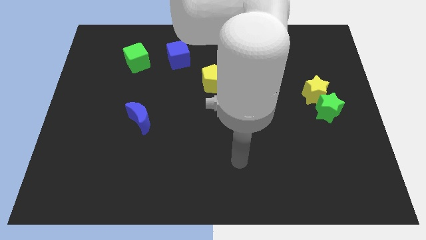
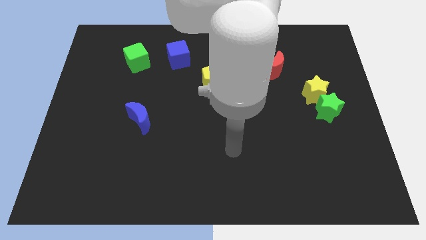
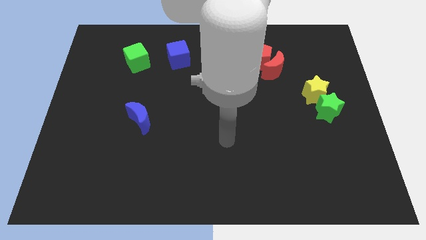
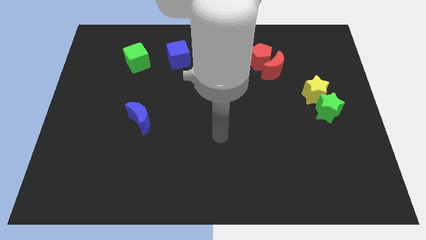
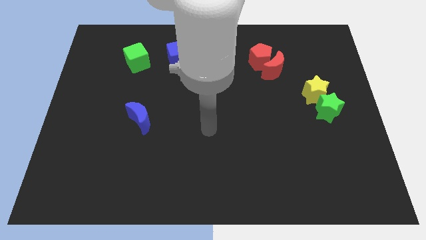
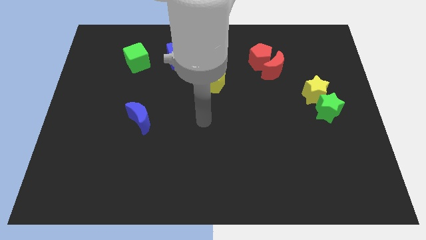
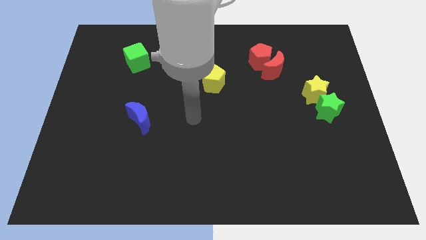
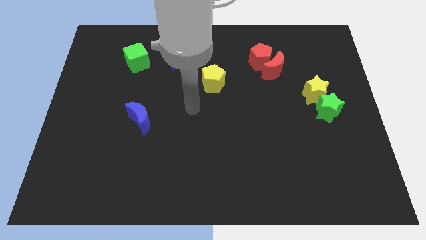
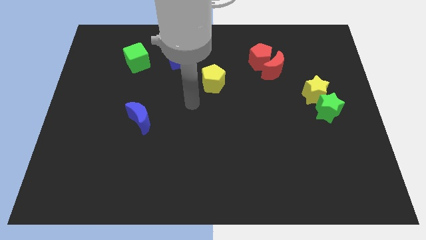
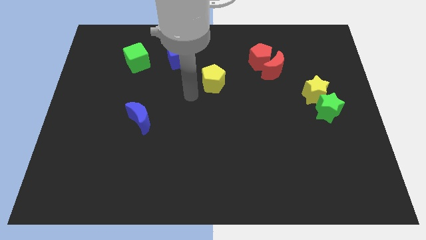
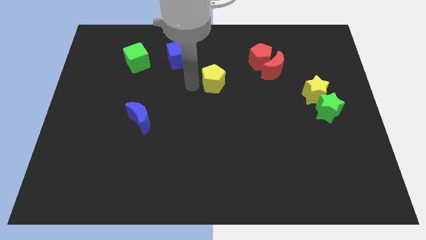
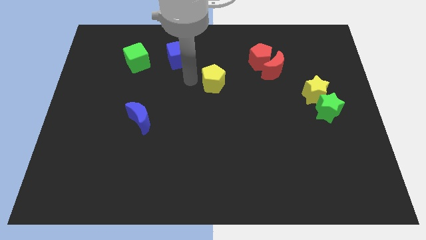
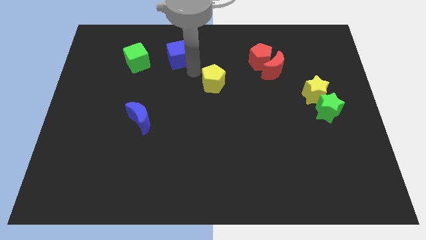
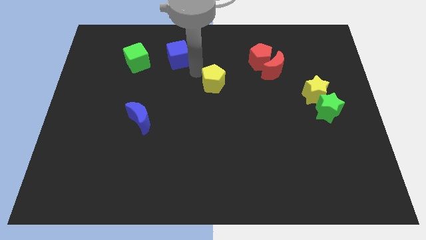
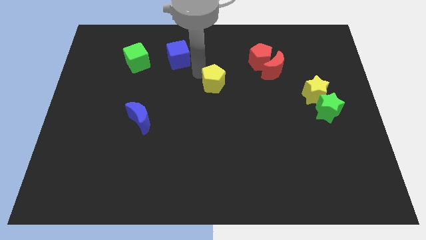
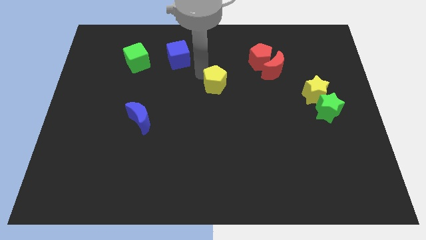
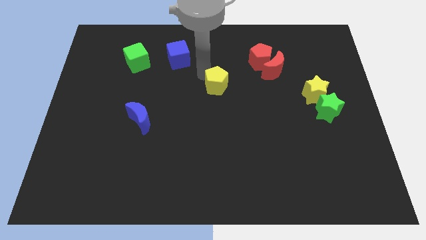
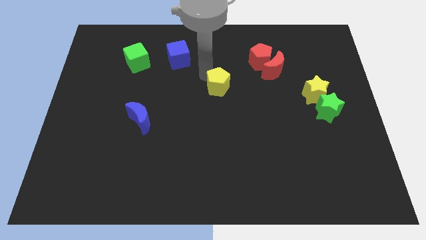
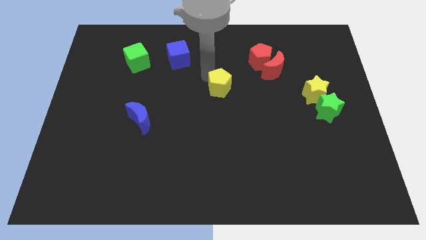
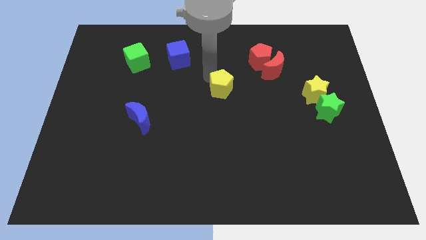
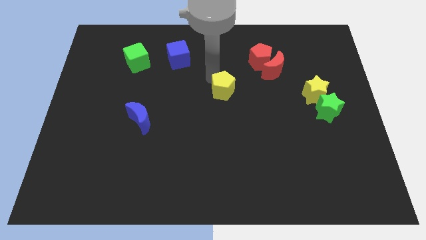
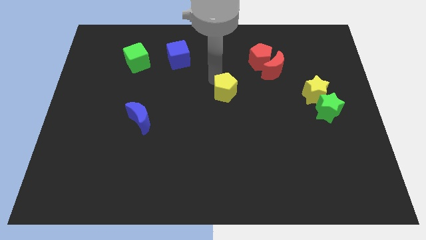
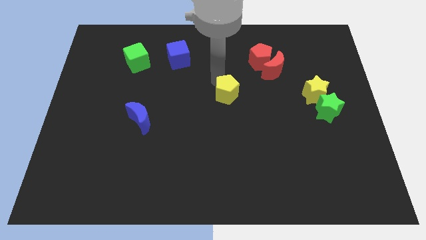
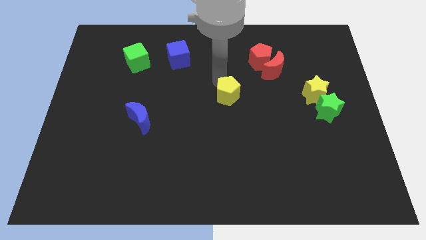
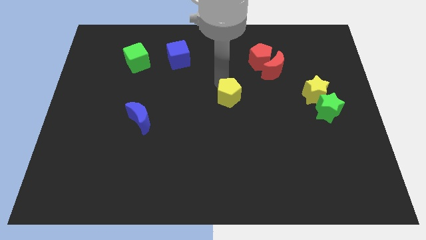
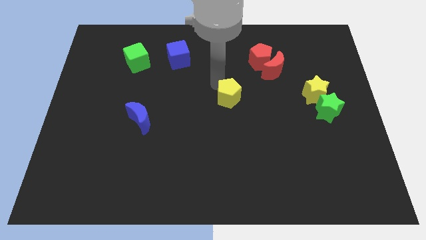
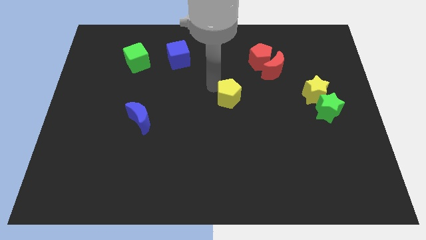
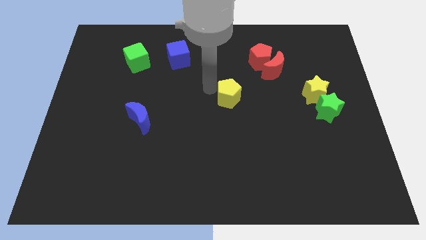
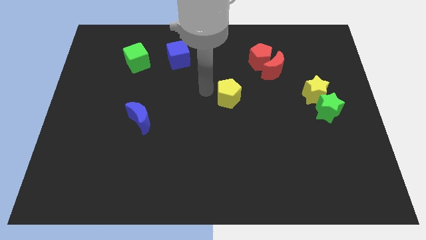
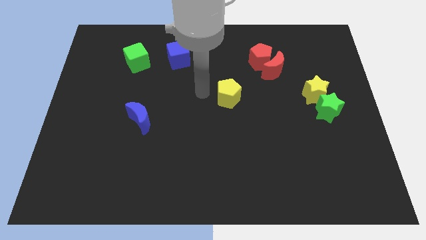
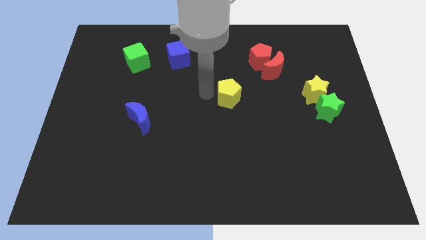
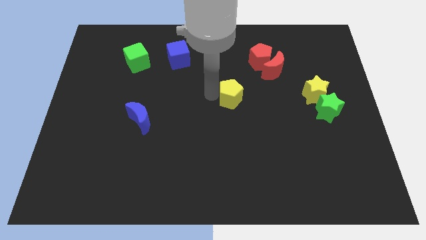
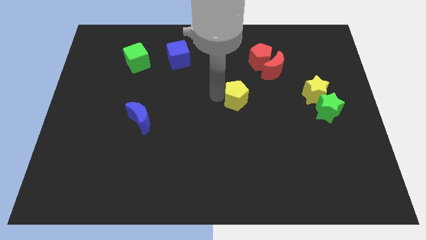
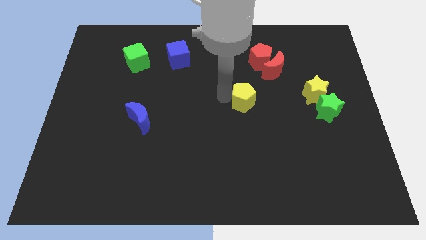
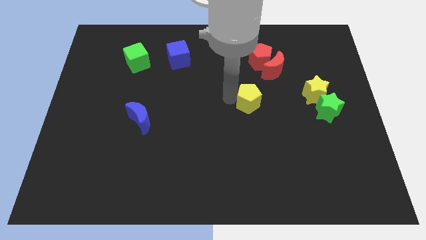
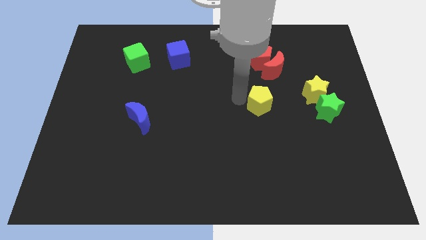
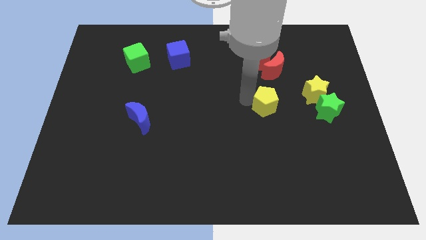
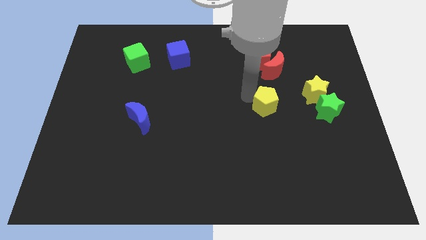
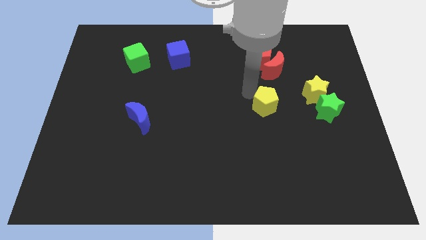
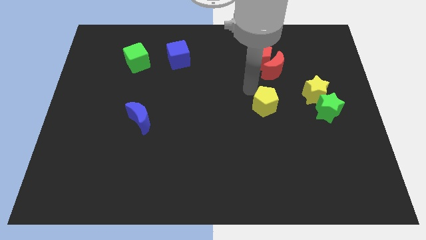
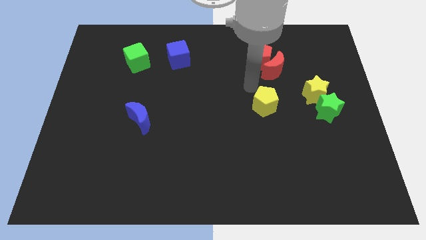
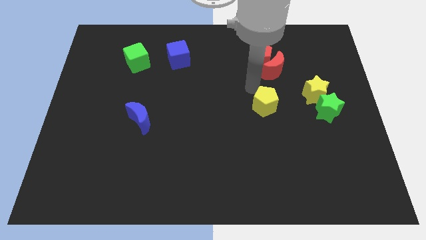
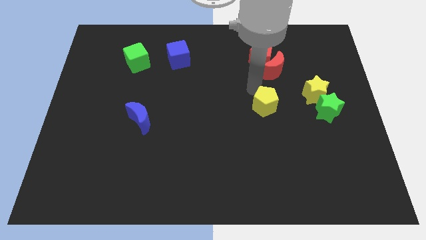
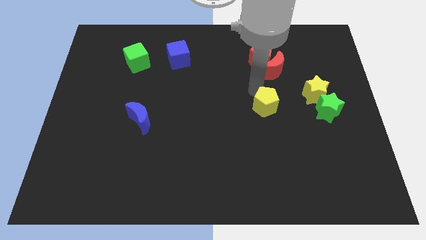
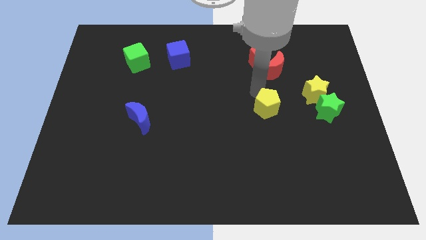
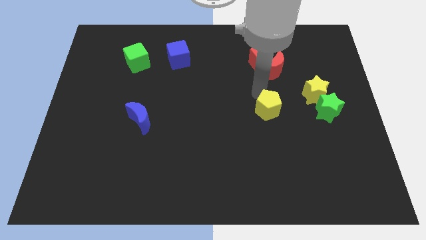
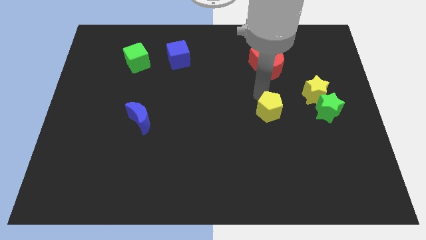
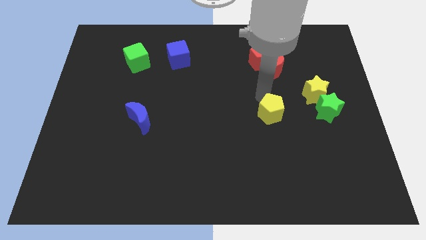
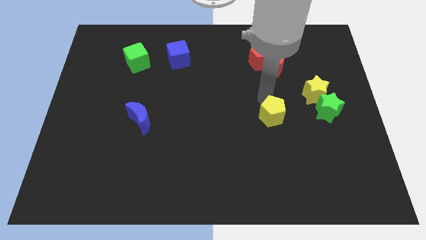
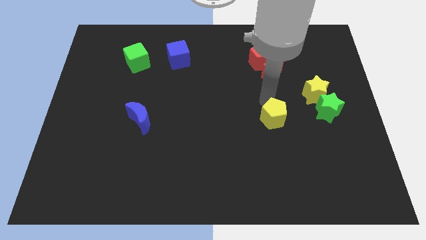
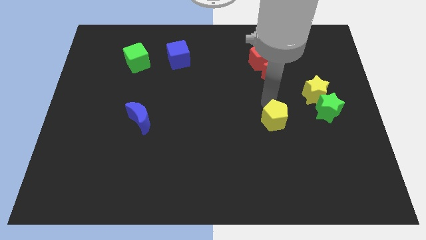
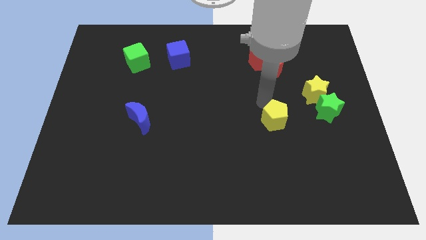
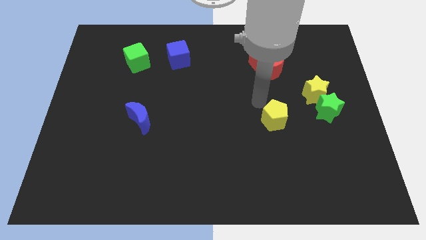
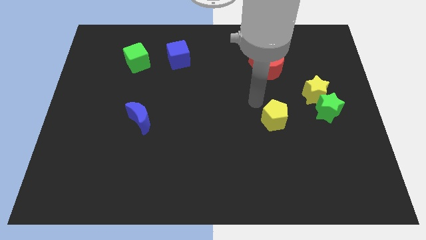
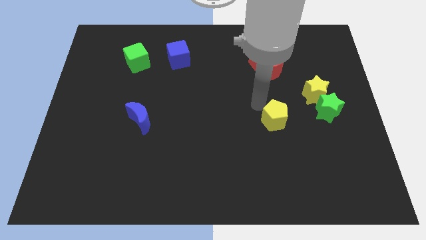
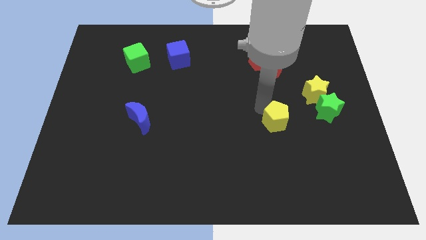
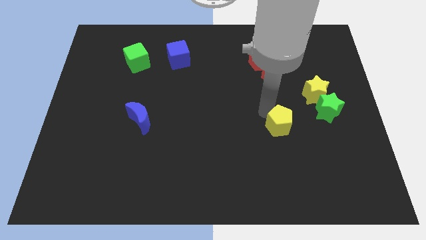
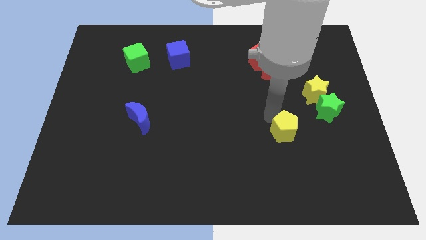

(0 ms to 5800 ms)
move the yellow pentagon downwards and right

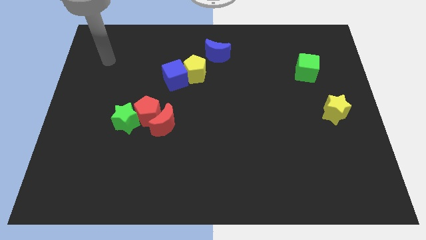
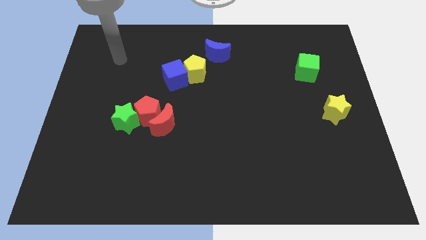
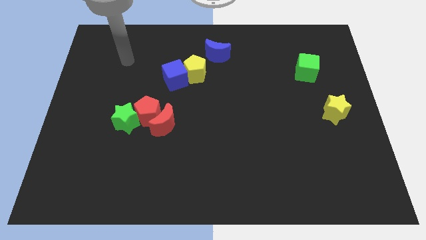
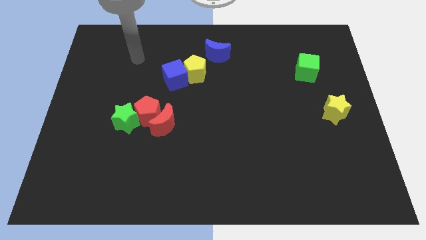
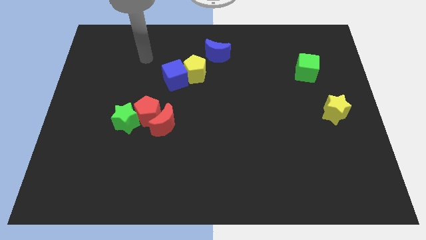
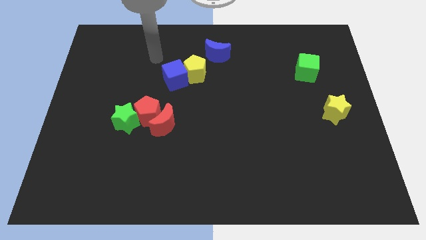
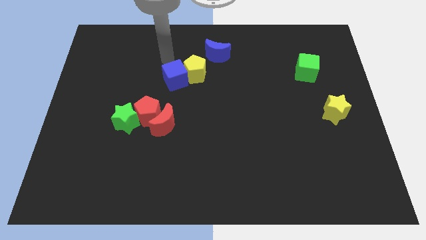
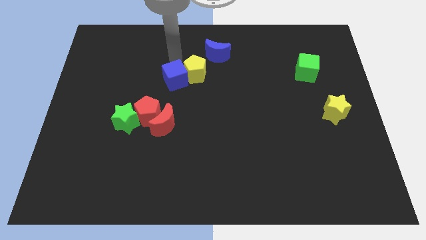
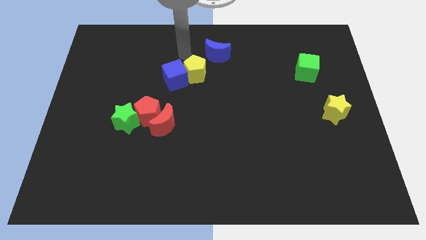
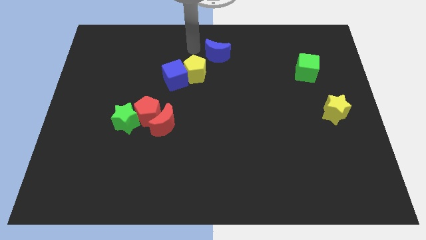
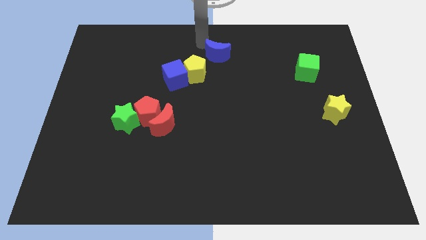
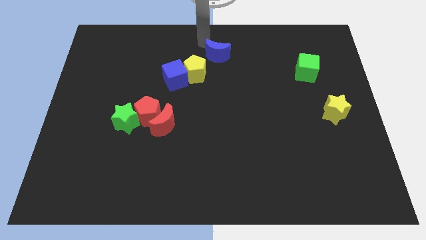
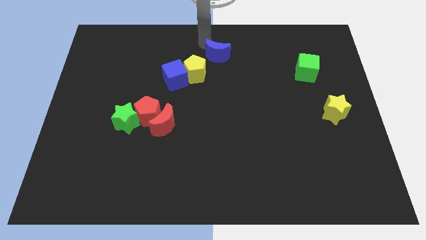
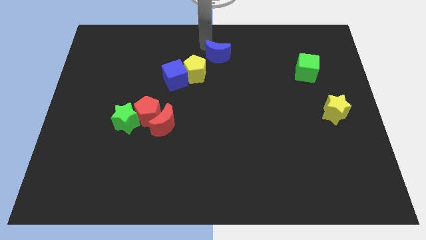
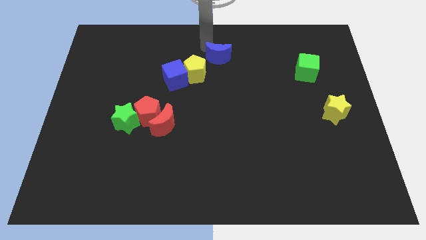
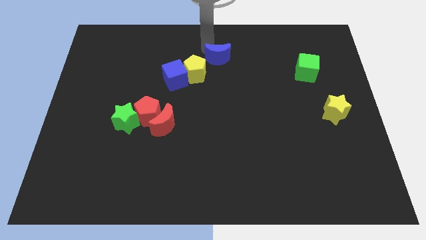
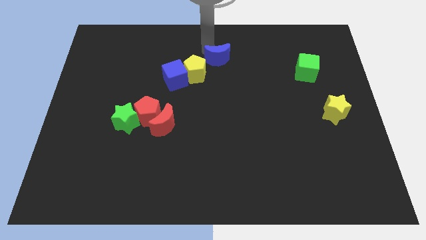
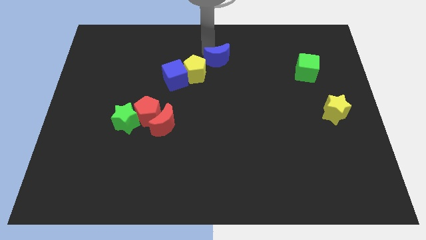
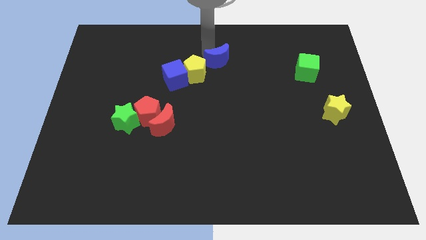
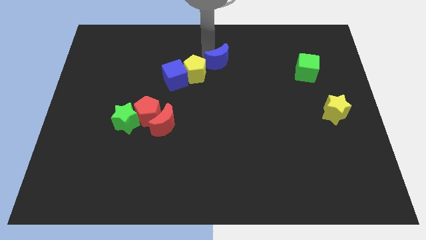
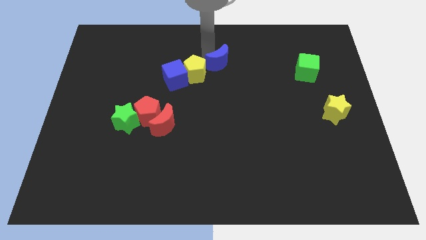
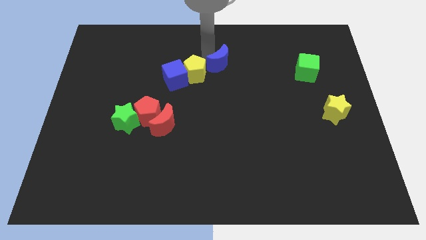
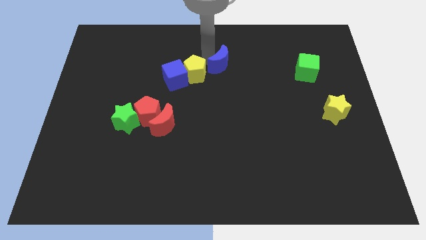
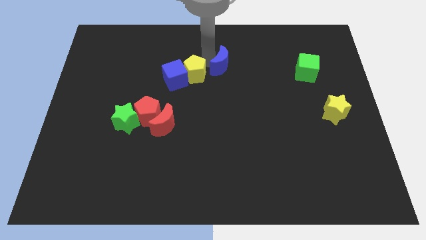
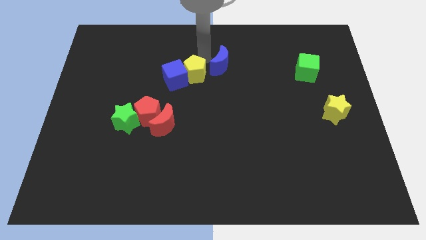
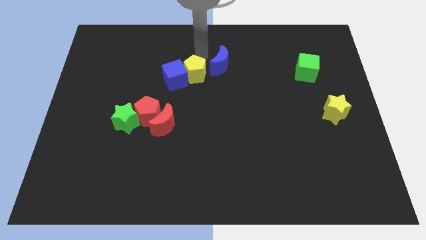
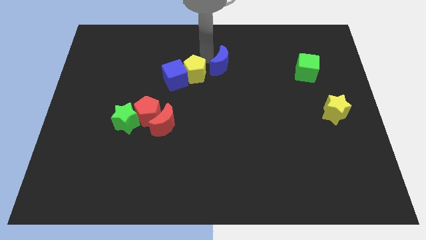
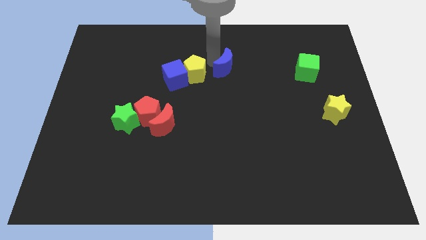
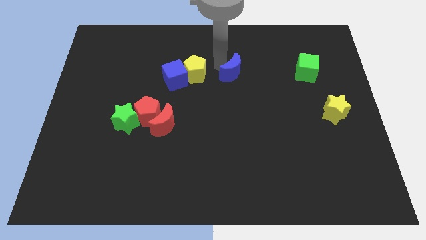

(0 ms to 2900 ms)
move the blue moon downwards and then to the right a bit
